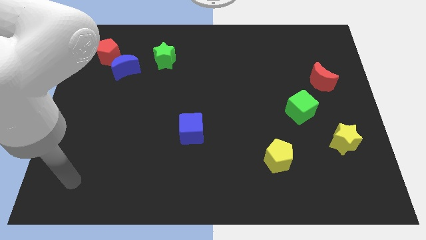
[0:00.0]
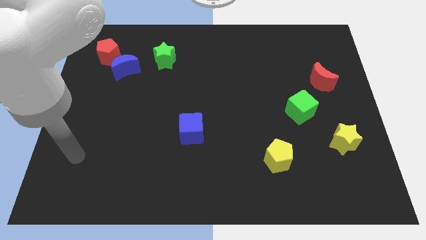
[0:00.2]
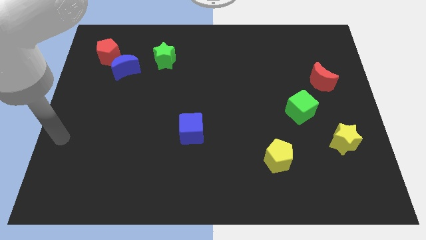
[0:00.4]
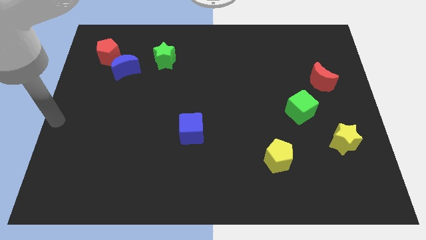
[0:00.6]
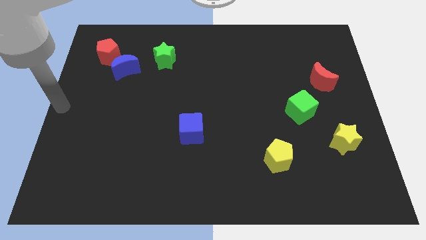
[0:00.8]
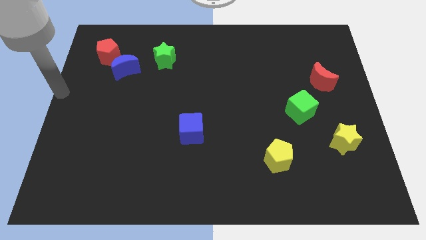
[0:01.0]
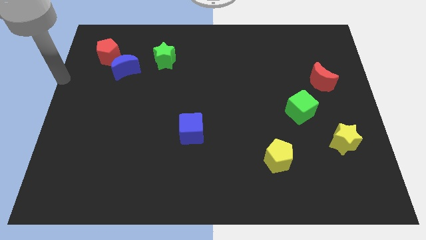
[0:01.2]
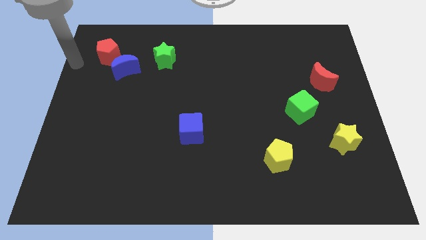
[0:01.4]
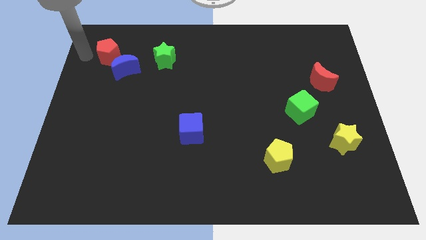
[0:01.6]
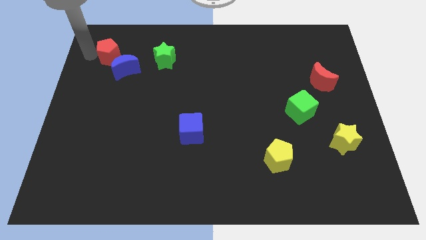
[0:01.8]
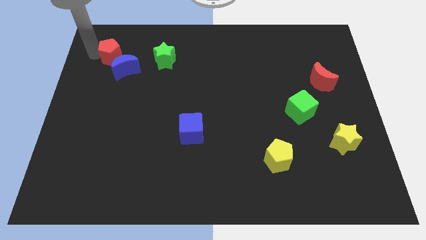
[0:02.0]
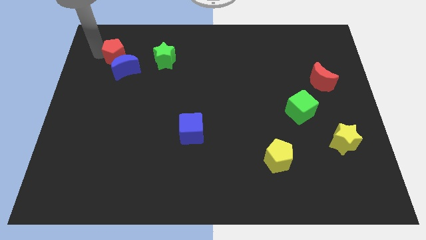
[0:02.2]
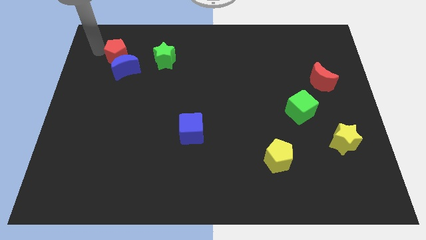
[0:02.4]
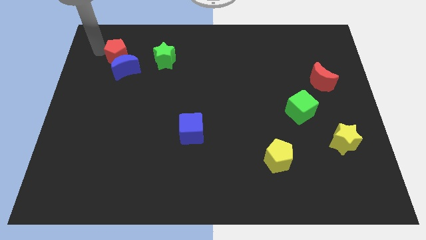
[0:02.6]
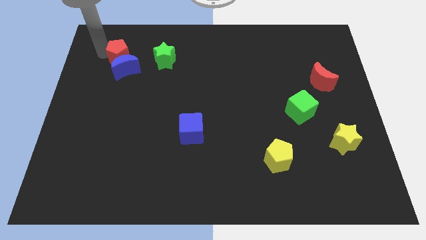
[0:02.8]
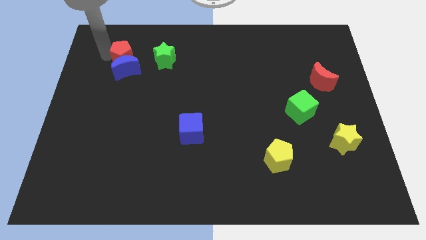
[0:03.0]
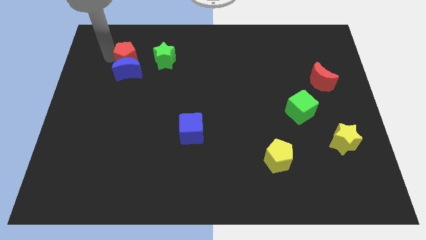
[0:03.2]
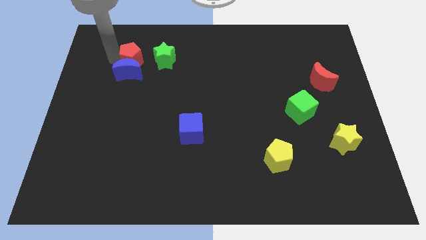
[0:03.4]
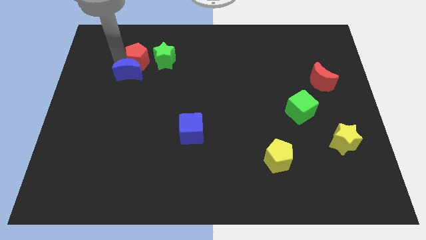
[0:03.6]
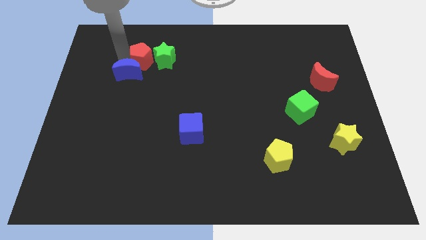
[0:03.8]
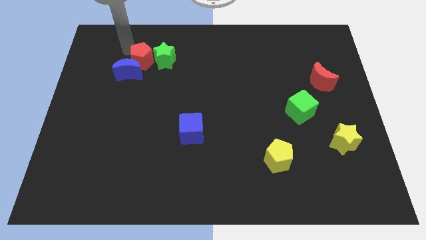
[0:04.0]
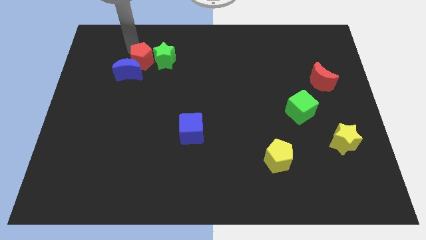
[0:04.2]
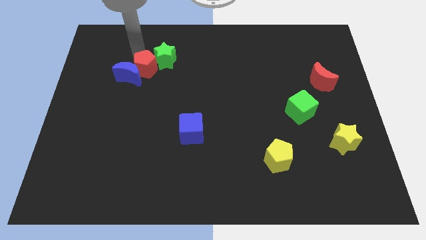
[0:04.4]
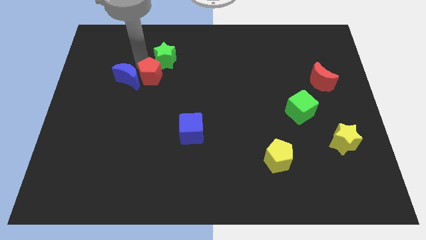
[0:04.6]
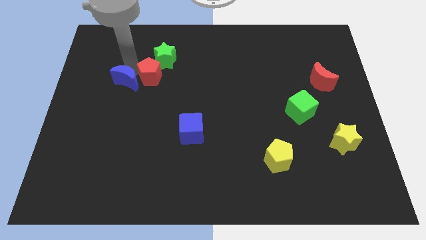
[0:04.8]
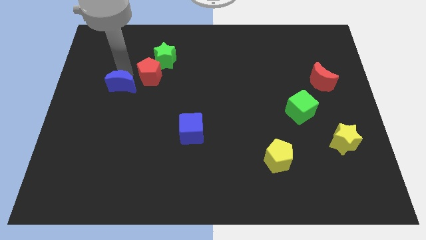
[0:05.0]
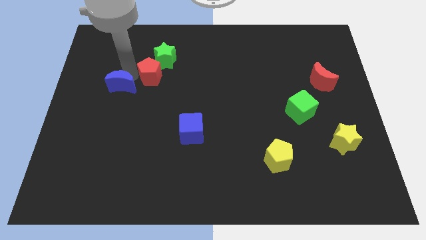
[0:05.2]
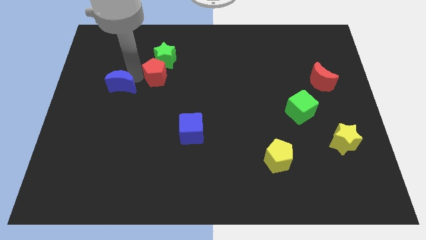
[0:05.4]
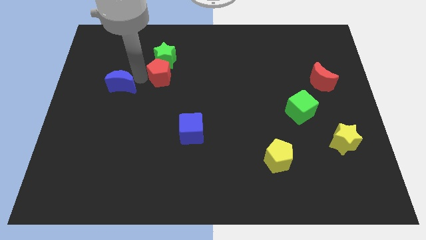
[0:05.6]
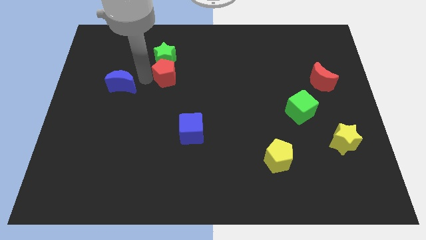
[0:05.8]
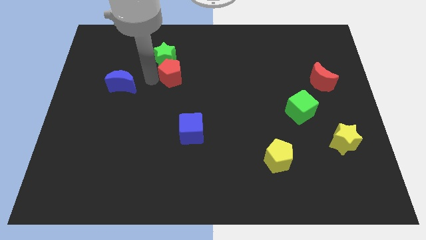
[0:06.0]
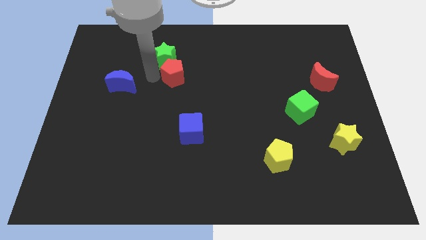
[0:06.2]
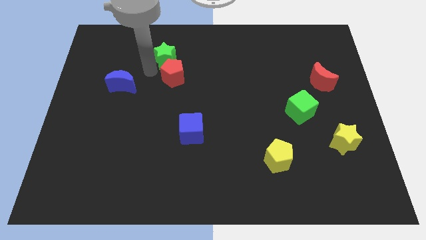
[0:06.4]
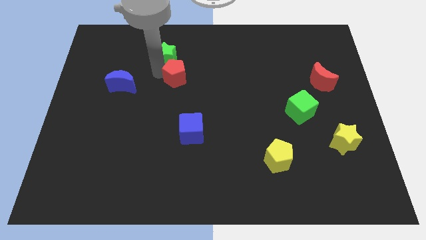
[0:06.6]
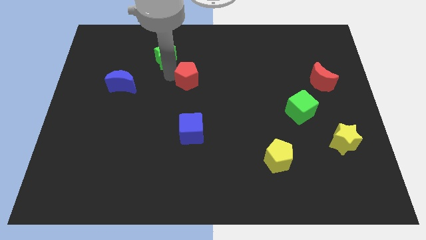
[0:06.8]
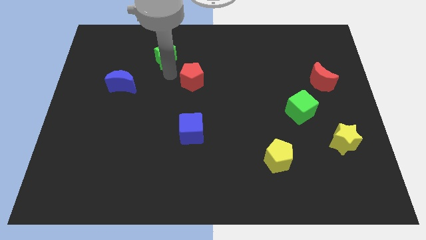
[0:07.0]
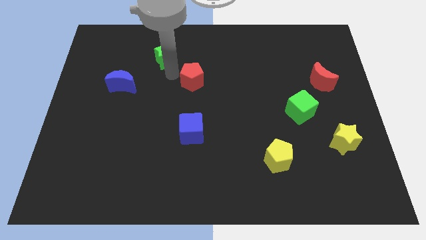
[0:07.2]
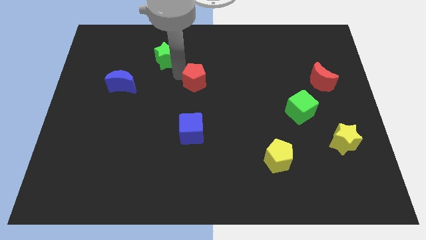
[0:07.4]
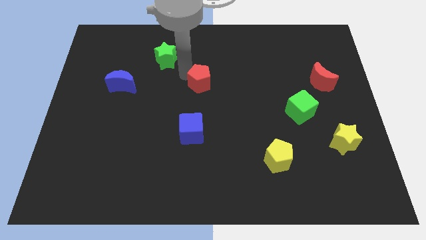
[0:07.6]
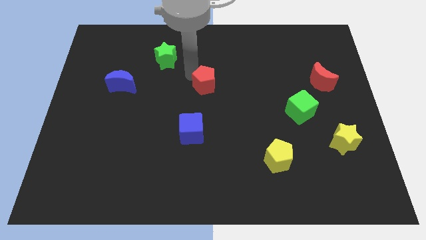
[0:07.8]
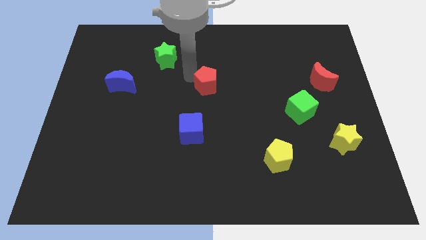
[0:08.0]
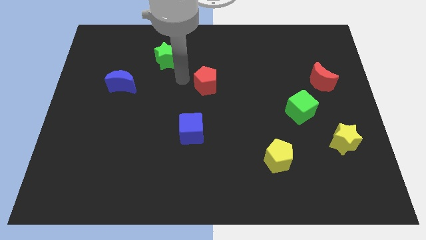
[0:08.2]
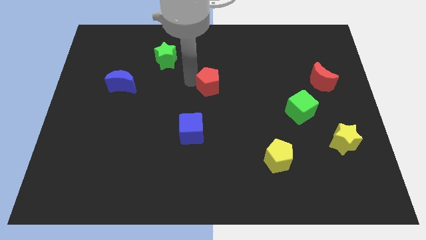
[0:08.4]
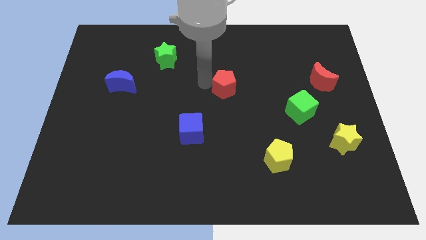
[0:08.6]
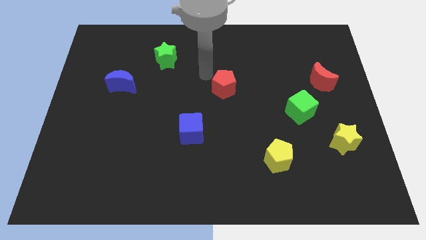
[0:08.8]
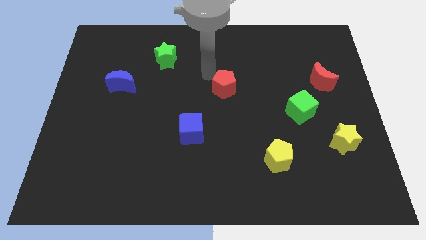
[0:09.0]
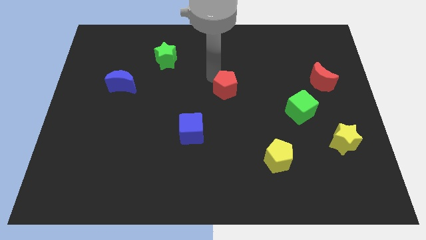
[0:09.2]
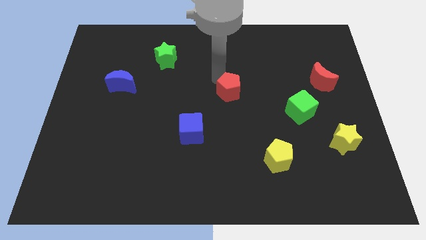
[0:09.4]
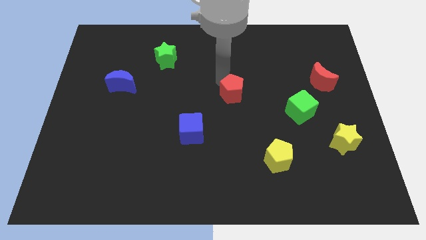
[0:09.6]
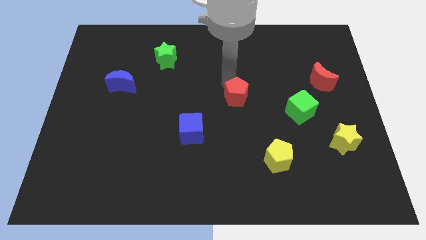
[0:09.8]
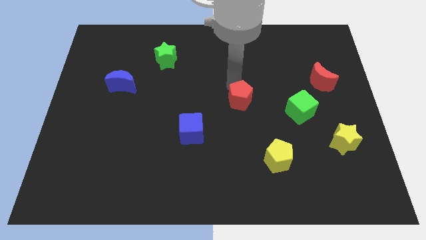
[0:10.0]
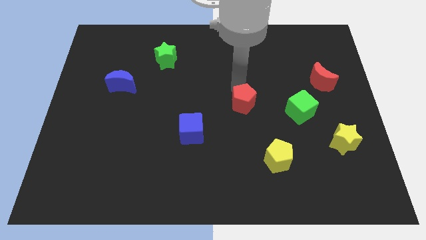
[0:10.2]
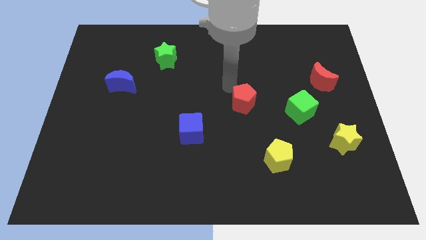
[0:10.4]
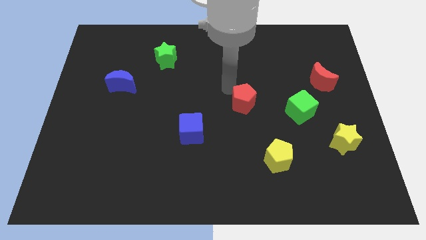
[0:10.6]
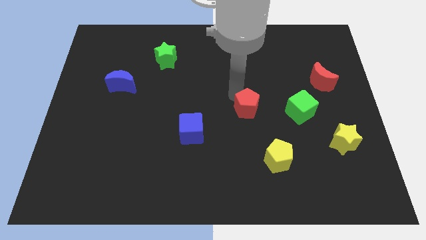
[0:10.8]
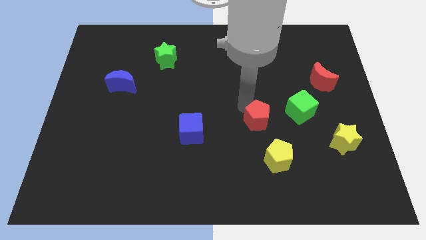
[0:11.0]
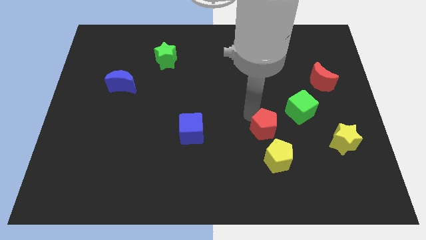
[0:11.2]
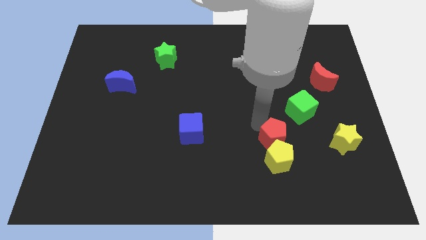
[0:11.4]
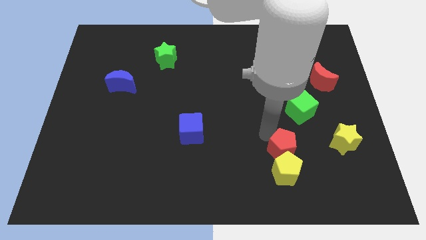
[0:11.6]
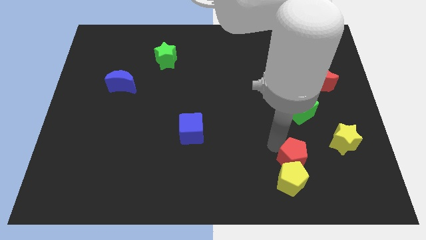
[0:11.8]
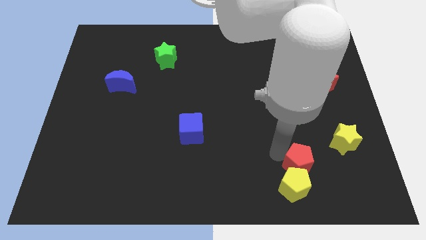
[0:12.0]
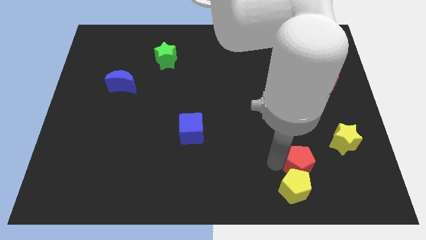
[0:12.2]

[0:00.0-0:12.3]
push the red pentagon to the bottom left of the yellow star

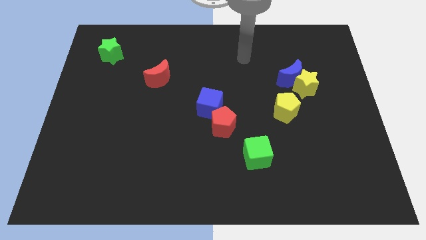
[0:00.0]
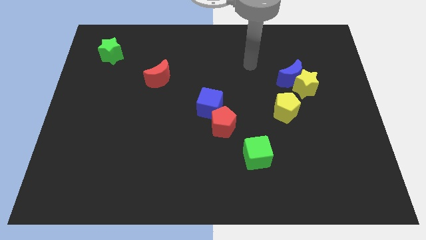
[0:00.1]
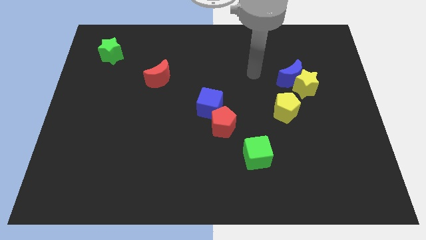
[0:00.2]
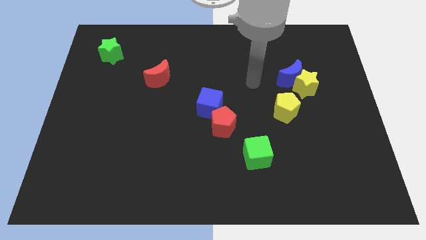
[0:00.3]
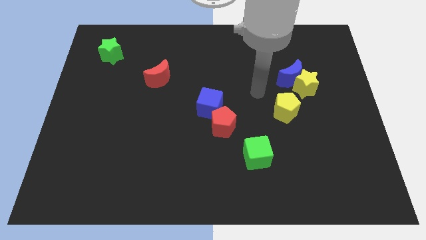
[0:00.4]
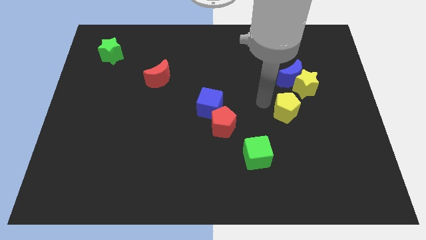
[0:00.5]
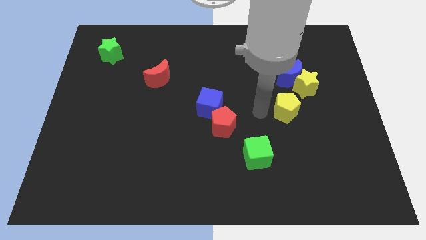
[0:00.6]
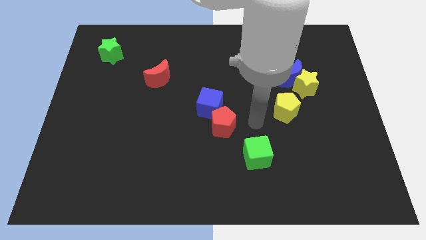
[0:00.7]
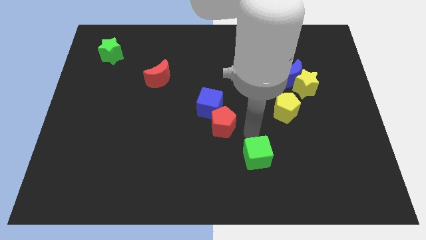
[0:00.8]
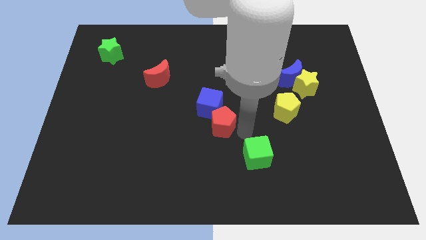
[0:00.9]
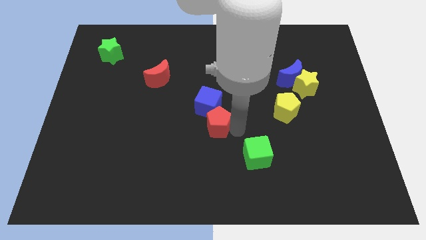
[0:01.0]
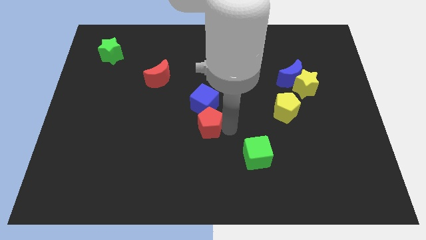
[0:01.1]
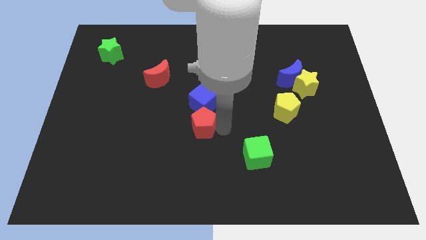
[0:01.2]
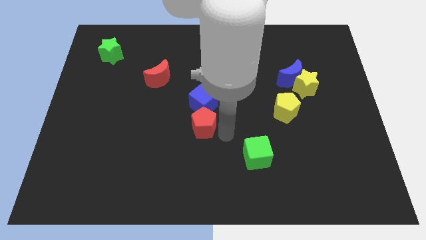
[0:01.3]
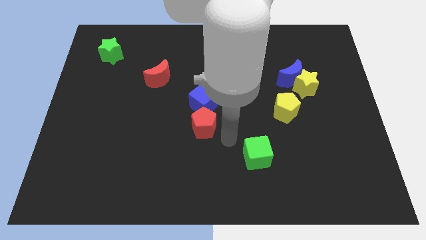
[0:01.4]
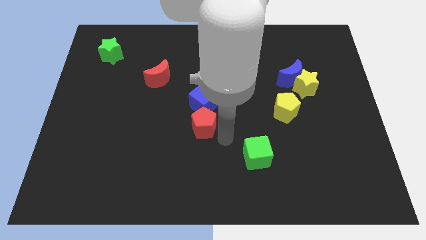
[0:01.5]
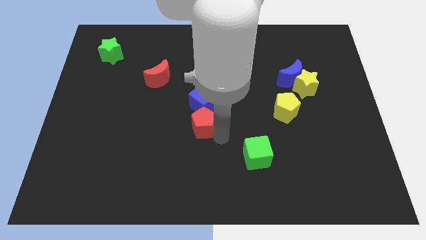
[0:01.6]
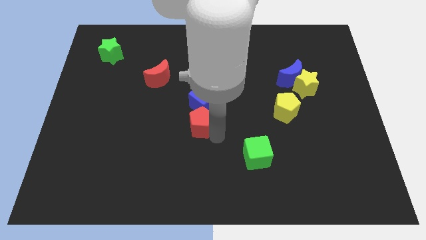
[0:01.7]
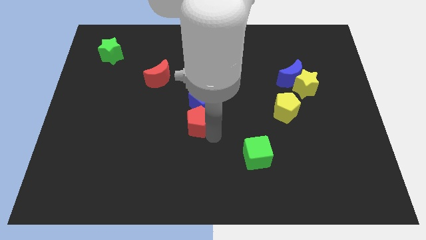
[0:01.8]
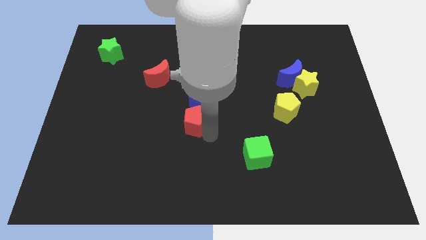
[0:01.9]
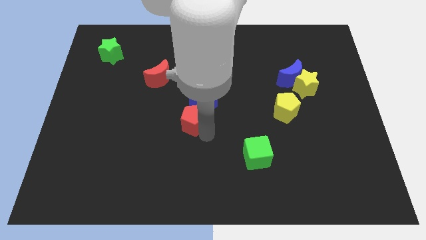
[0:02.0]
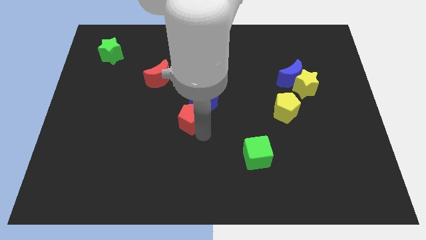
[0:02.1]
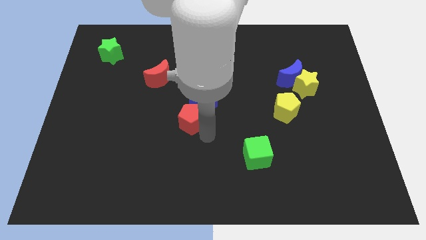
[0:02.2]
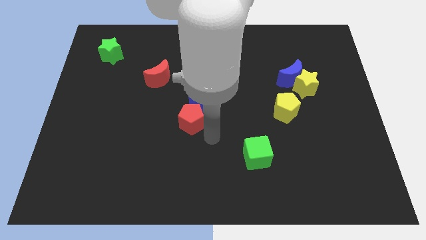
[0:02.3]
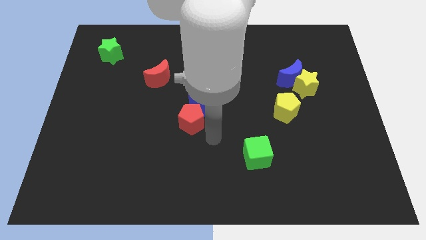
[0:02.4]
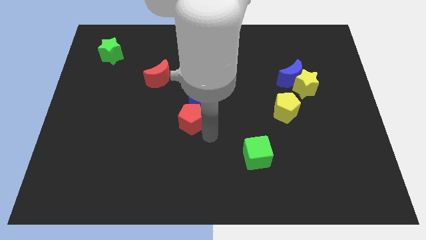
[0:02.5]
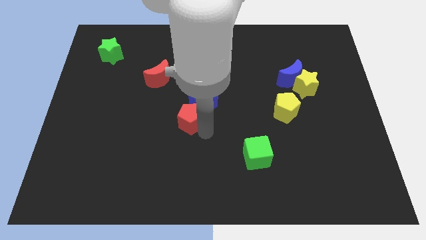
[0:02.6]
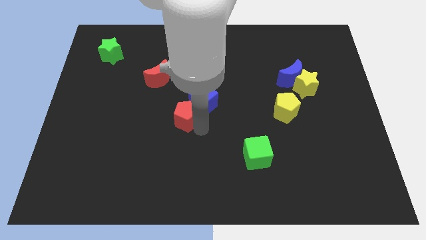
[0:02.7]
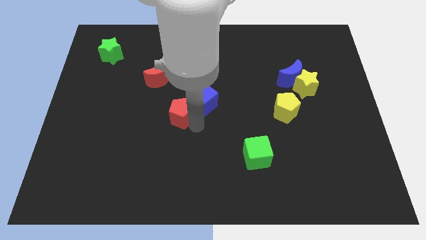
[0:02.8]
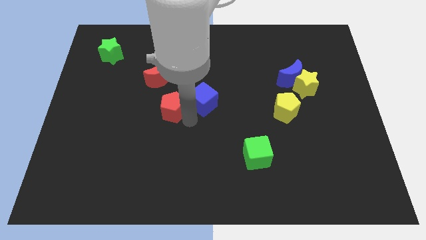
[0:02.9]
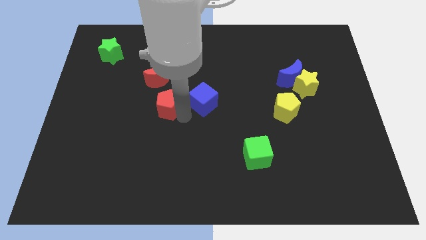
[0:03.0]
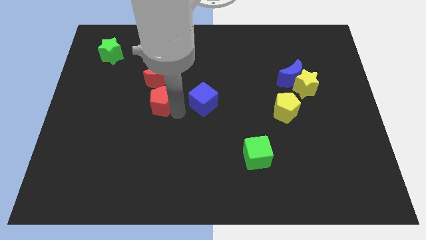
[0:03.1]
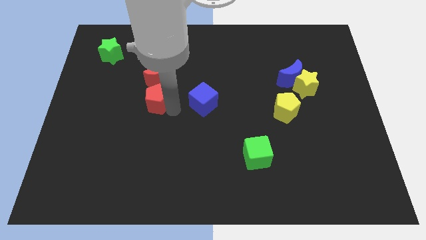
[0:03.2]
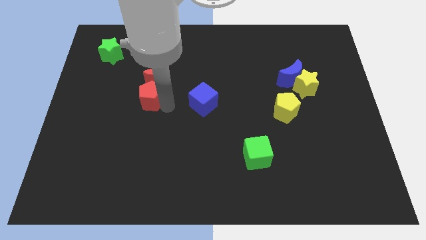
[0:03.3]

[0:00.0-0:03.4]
push the red pentagon diagonally down and to the left of the red moon
